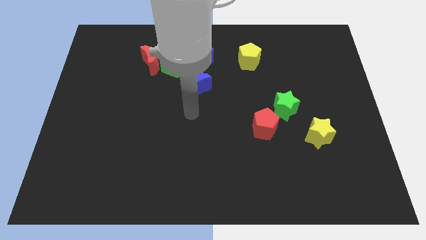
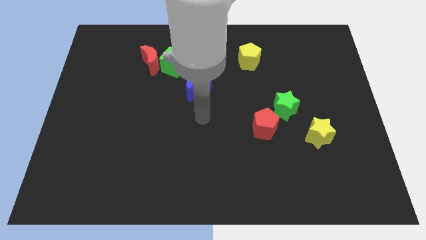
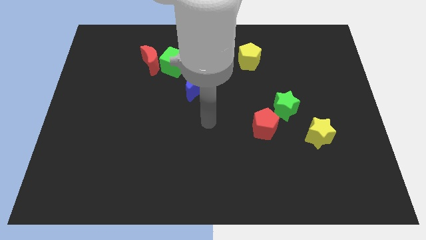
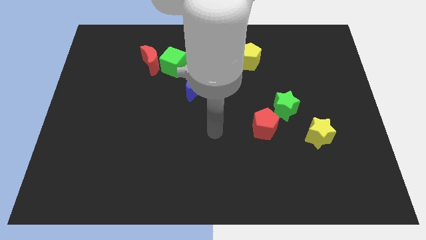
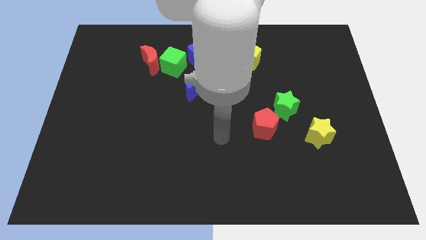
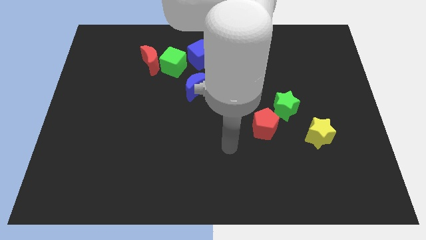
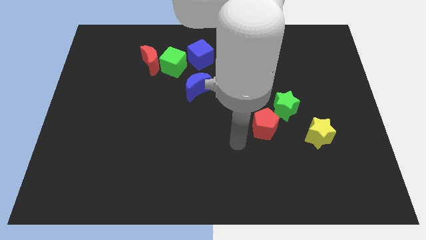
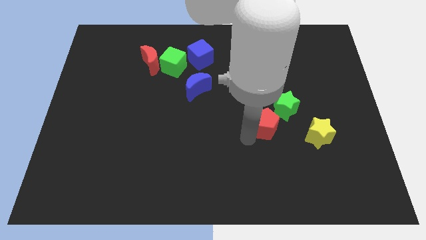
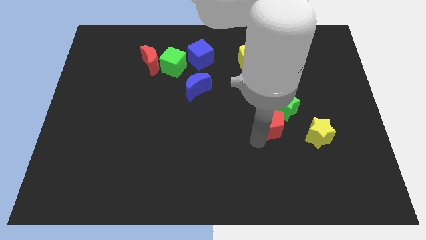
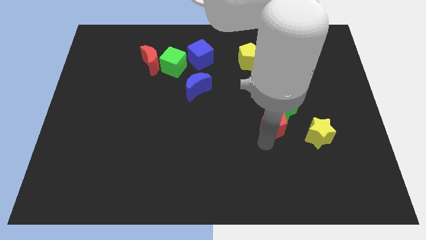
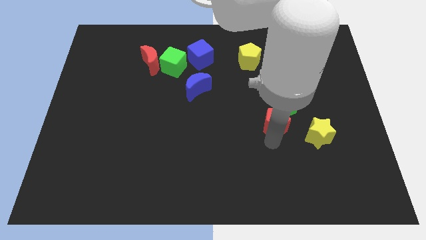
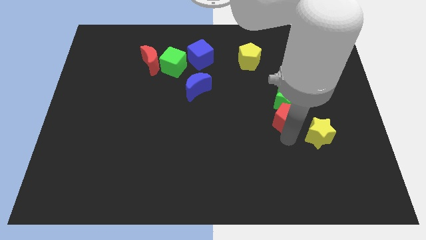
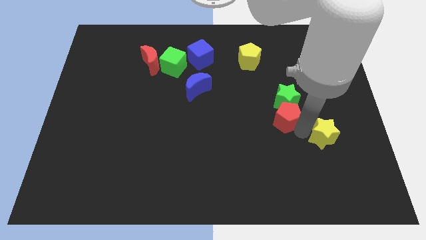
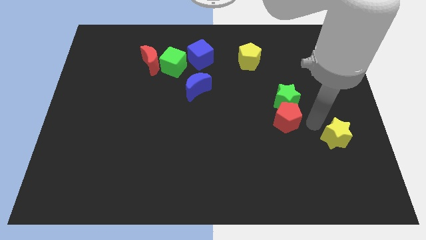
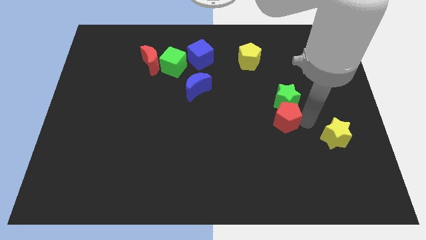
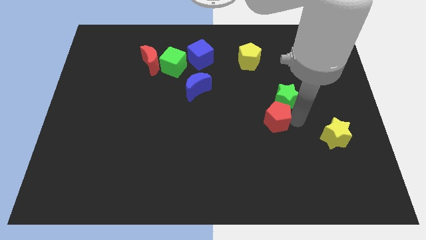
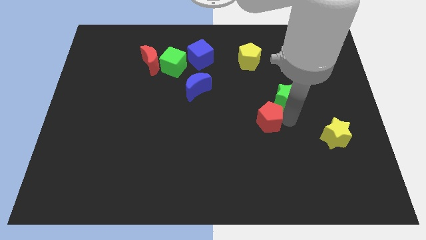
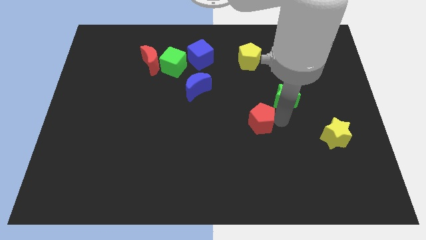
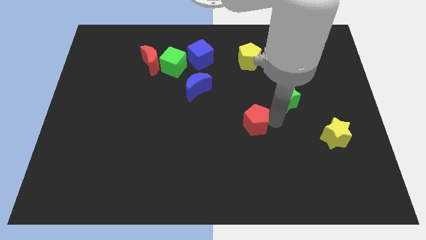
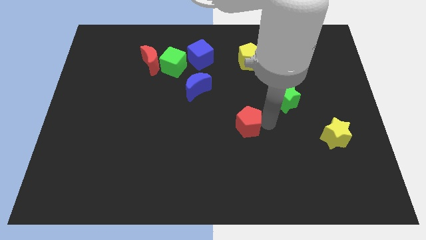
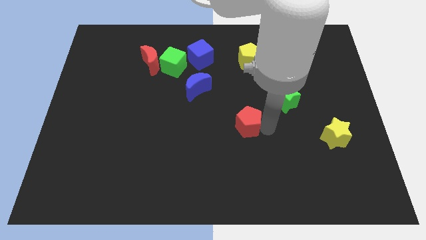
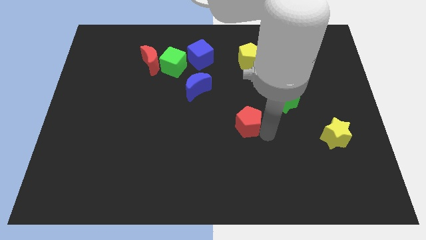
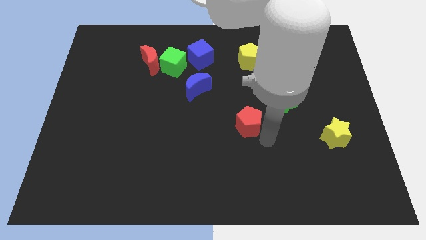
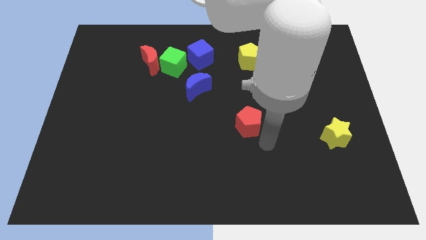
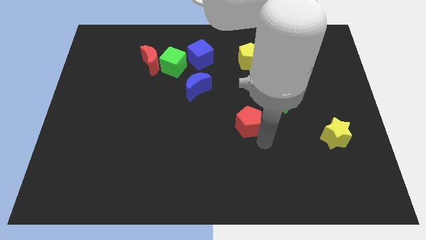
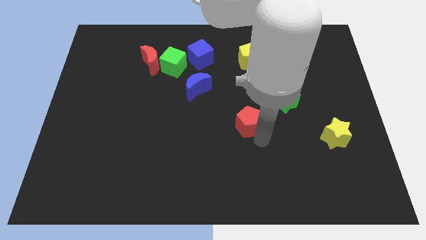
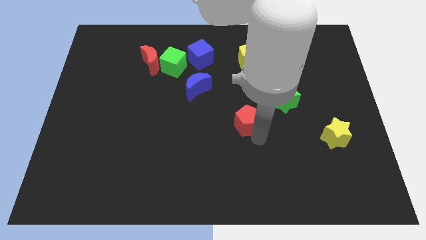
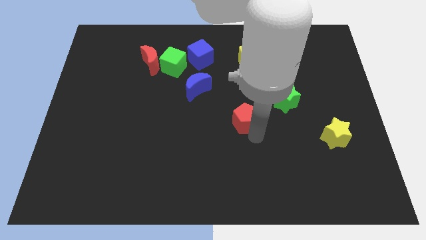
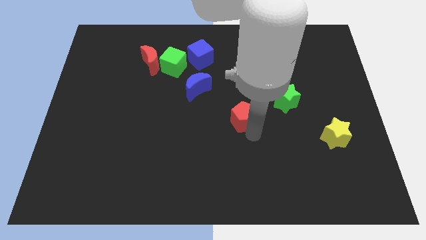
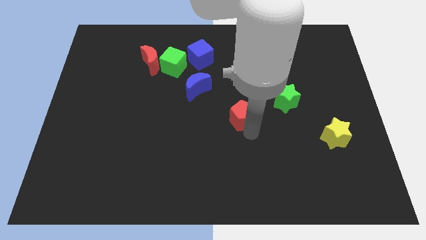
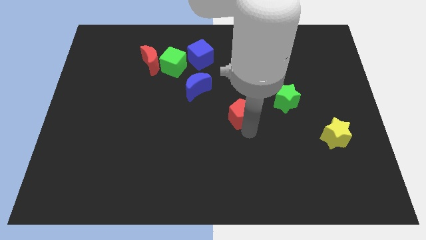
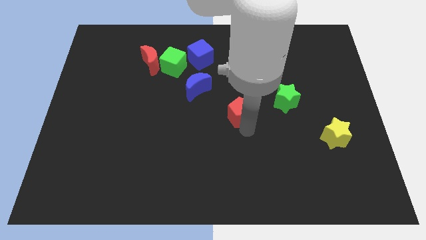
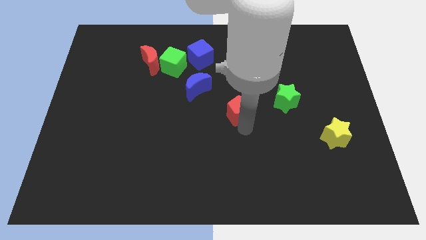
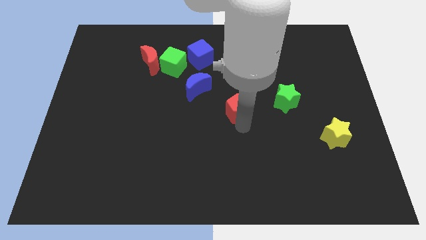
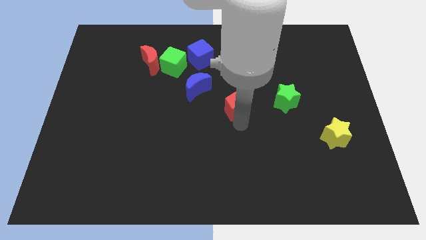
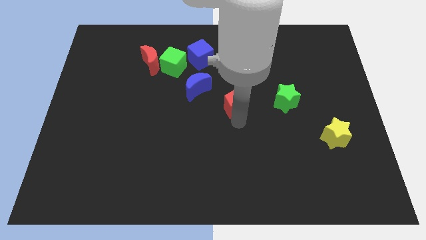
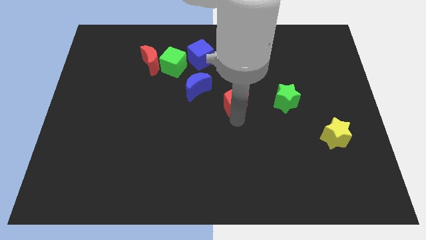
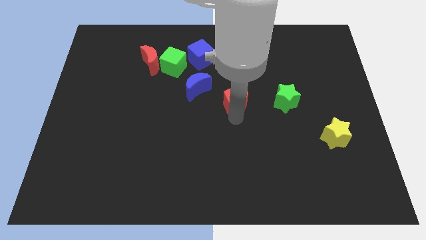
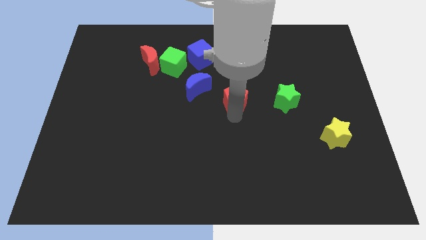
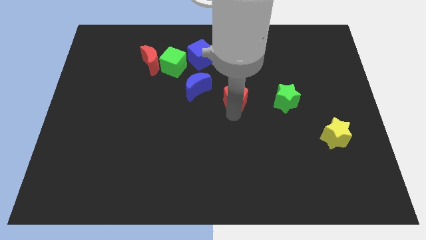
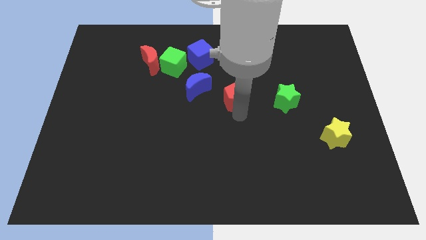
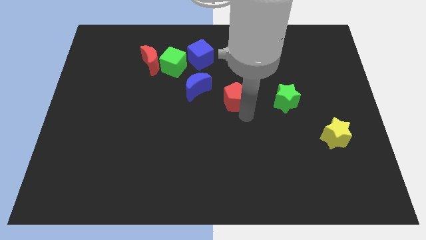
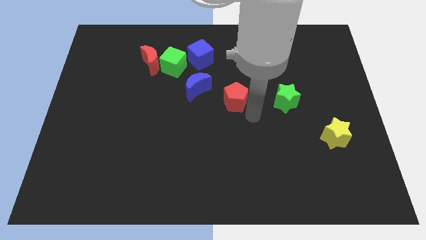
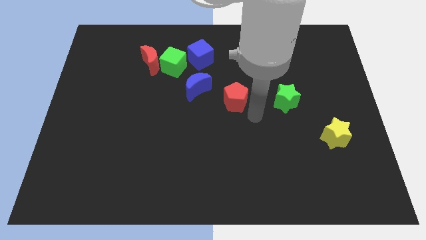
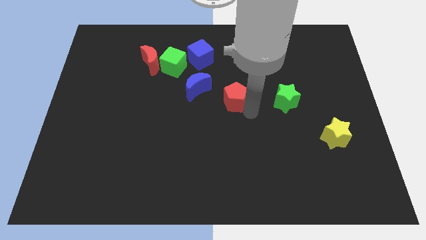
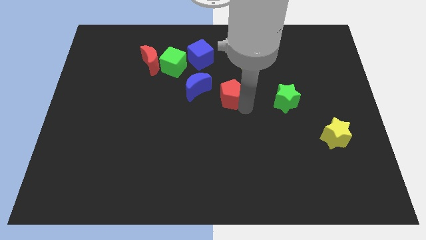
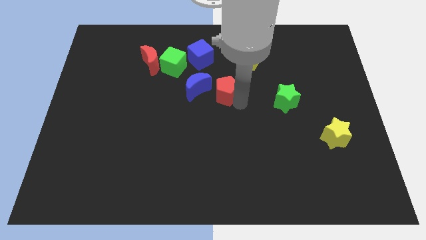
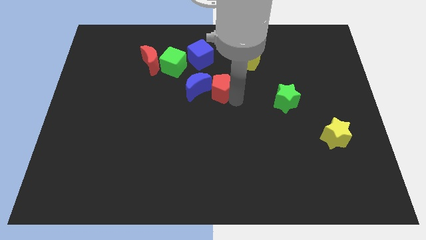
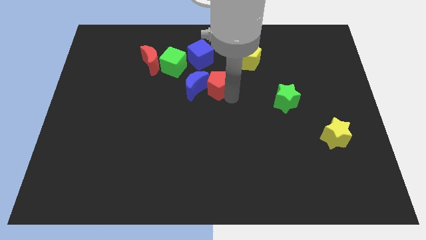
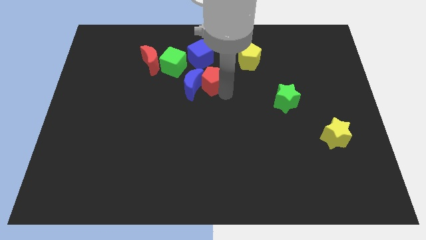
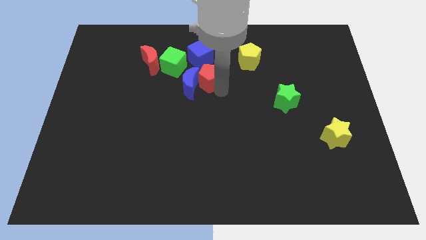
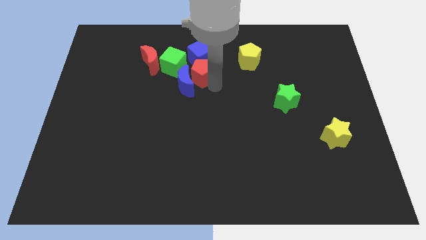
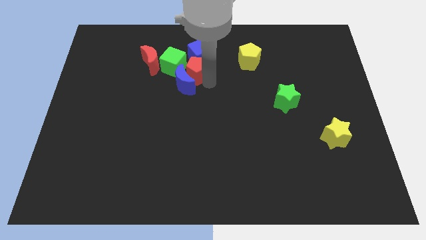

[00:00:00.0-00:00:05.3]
put the red pentagon next to the blue cube

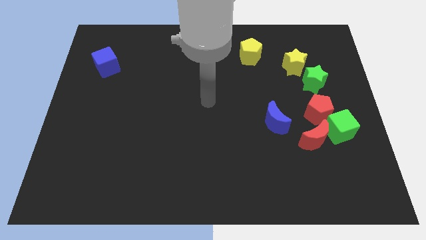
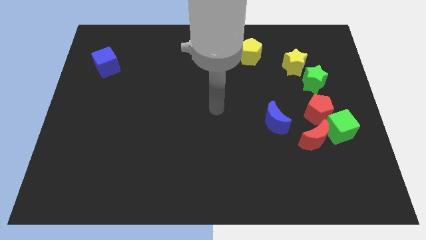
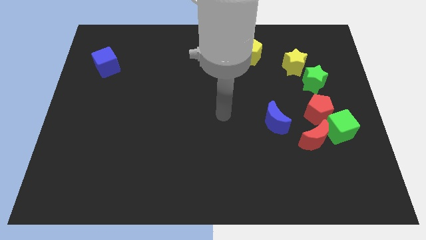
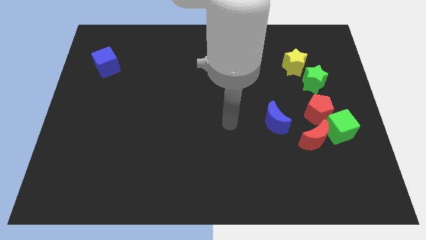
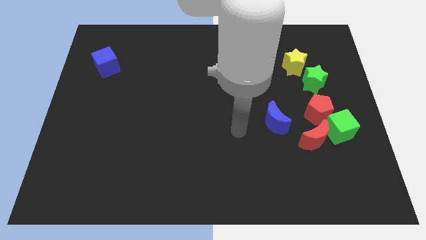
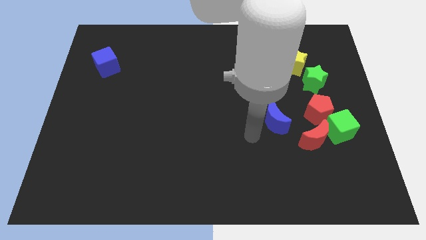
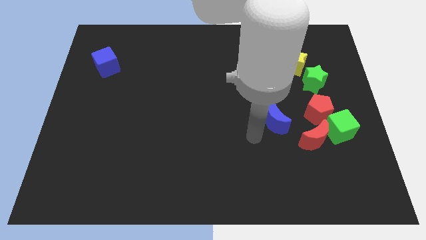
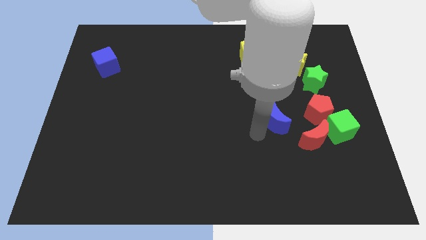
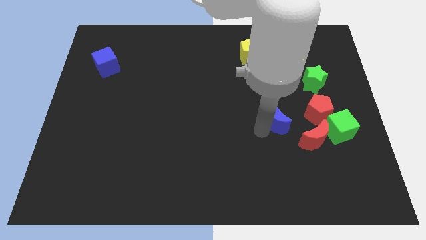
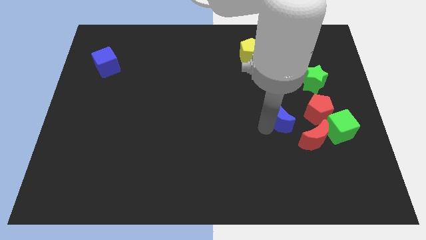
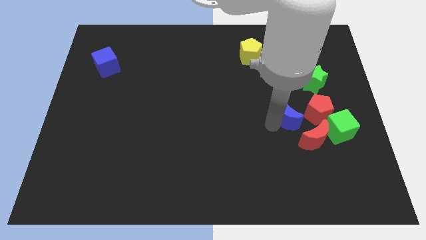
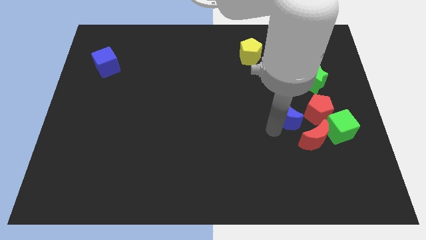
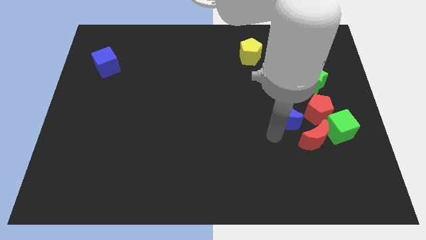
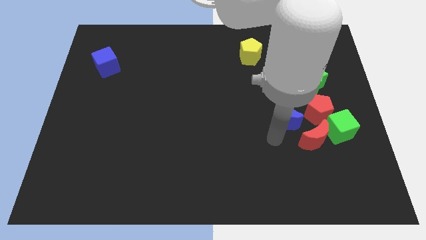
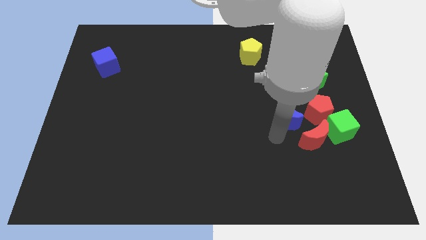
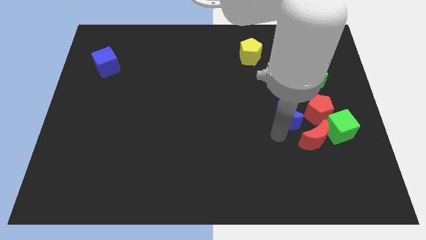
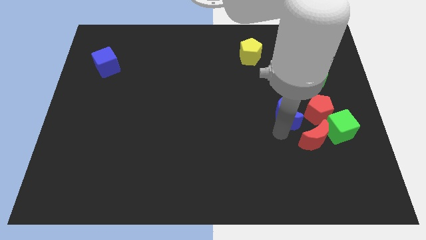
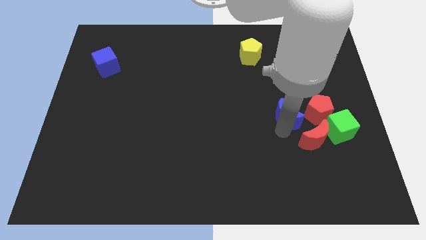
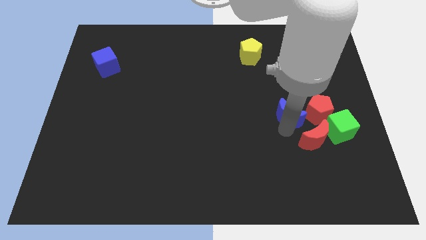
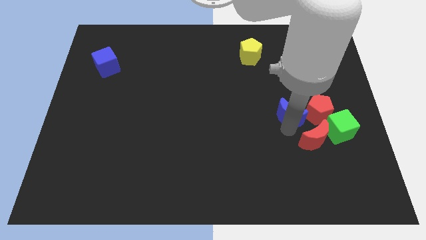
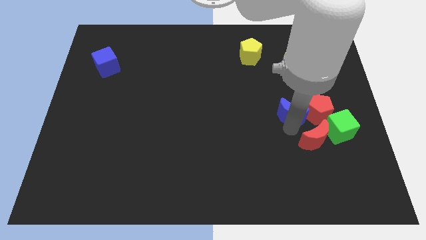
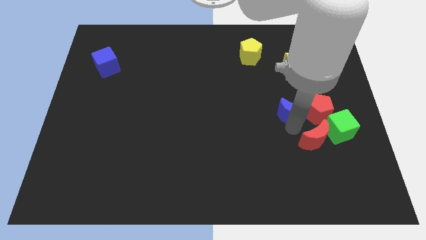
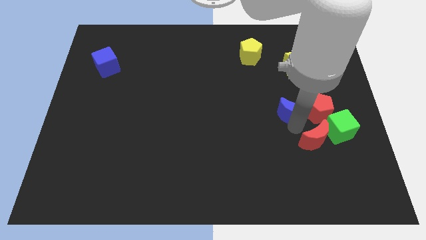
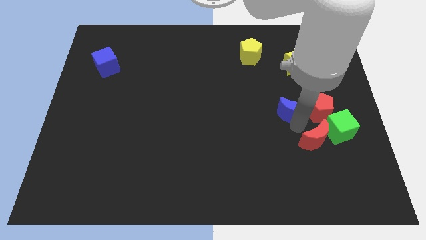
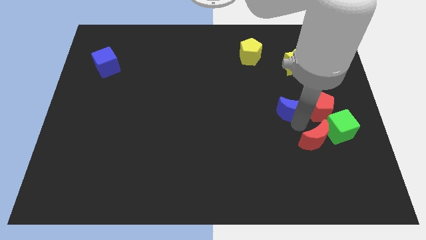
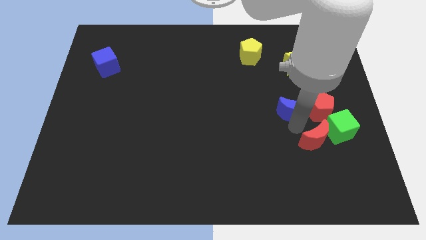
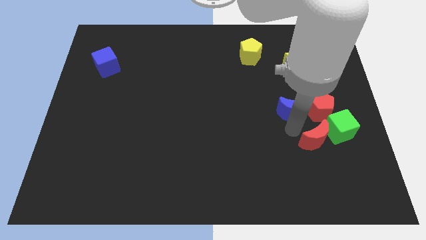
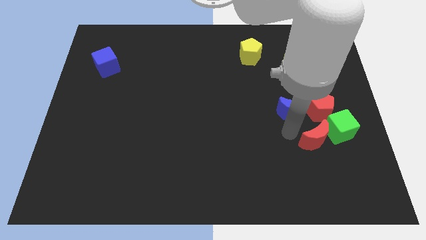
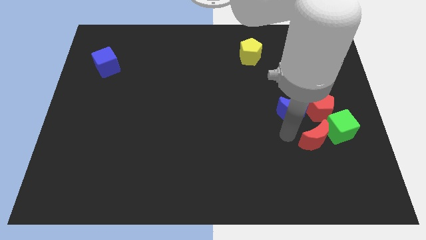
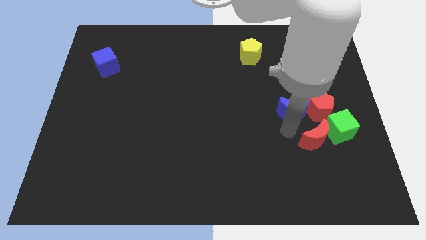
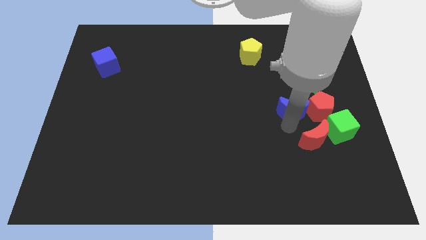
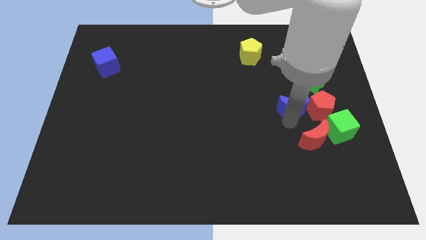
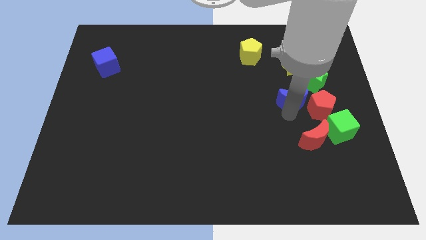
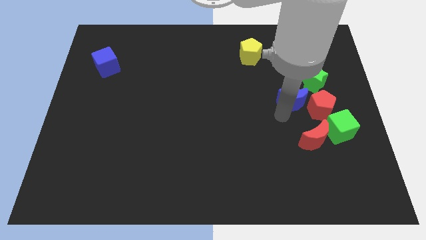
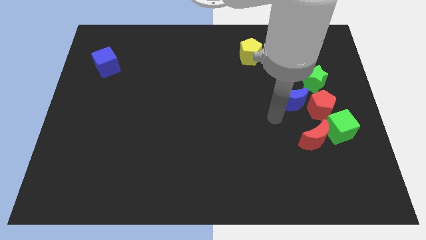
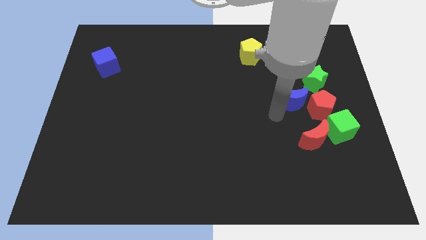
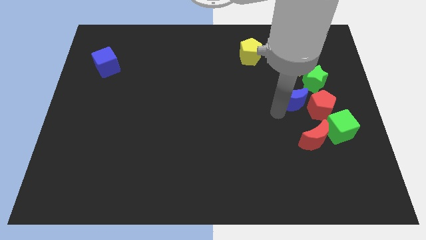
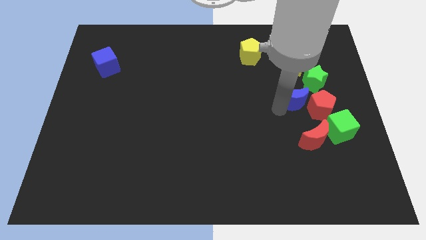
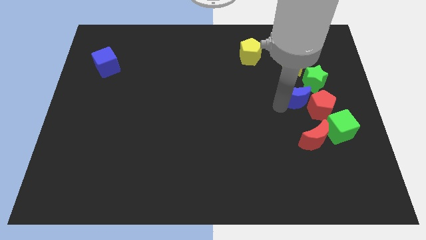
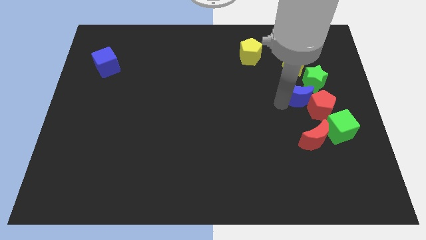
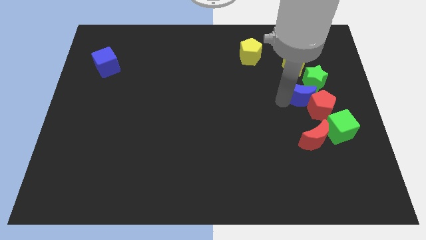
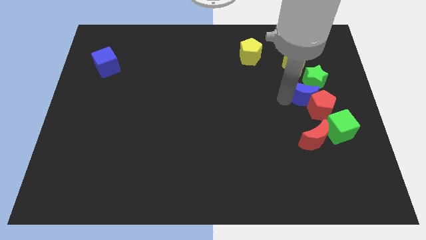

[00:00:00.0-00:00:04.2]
move the blue moon close to the green star
